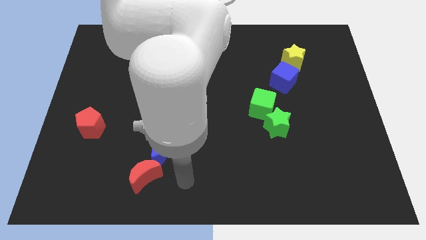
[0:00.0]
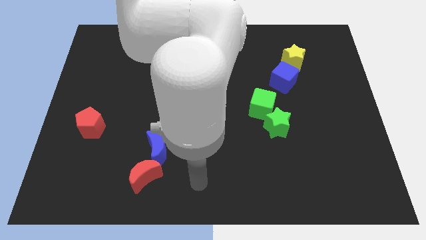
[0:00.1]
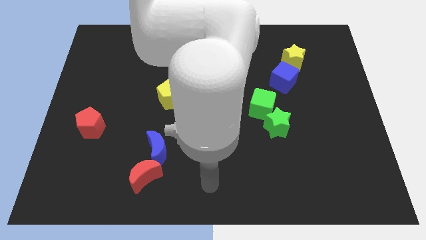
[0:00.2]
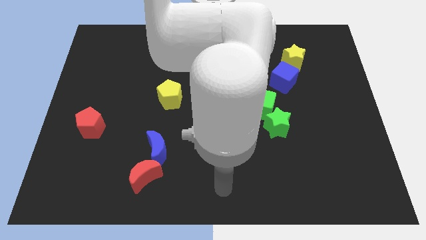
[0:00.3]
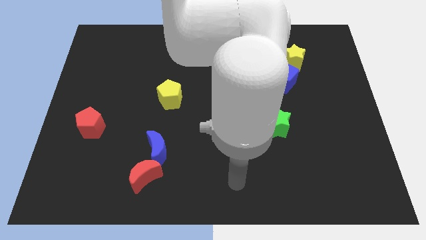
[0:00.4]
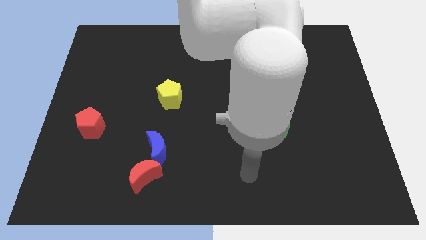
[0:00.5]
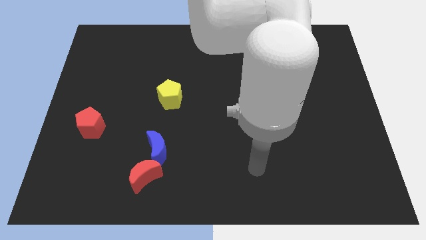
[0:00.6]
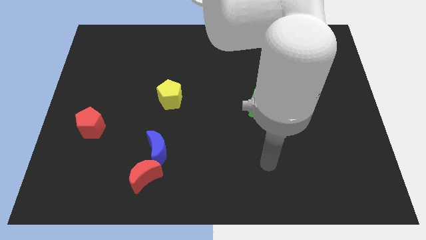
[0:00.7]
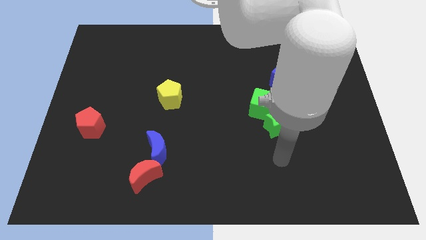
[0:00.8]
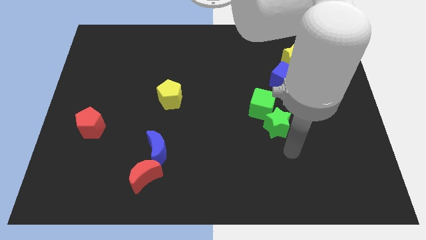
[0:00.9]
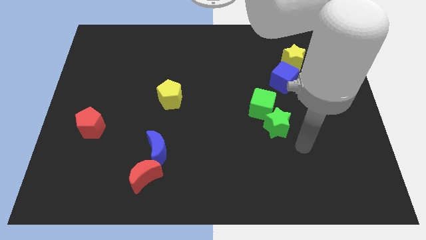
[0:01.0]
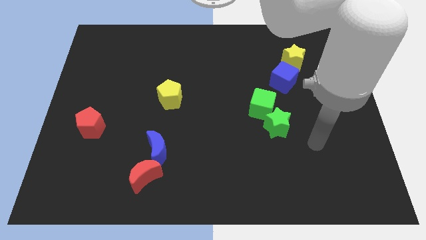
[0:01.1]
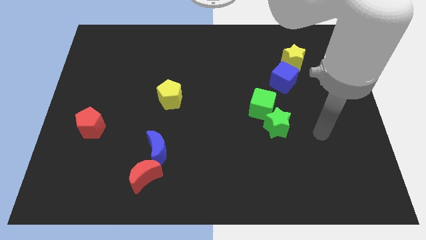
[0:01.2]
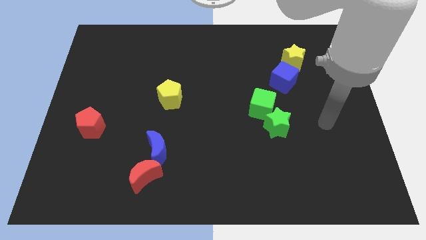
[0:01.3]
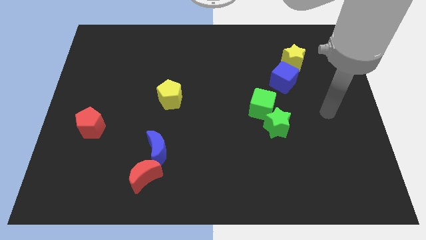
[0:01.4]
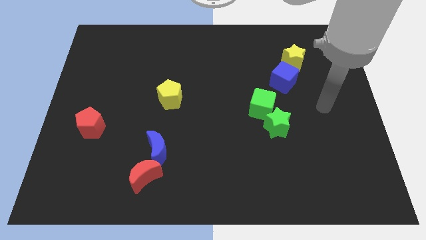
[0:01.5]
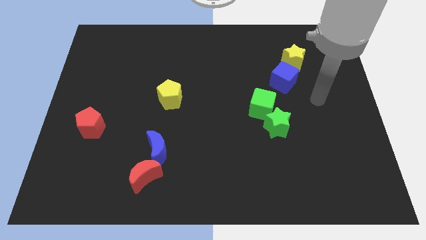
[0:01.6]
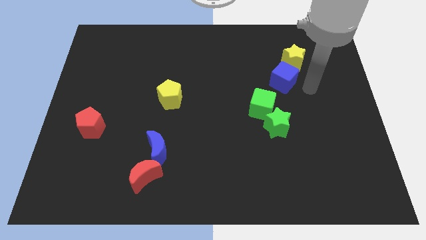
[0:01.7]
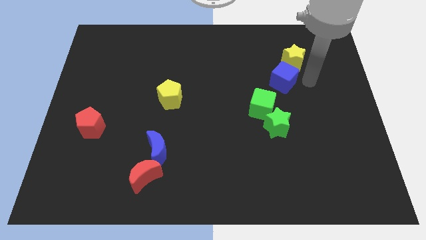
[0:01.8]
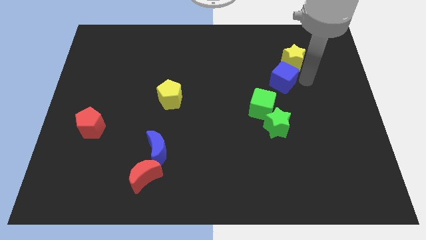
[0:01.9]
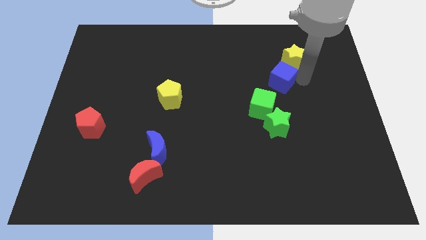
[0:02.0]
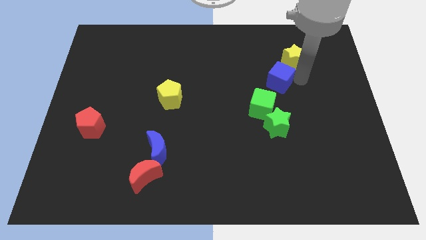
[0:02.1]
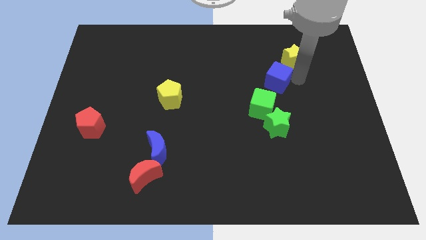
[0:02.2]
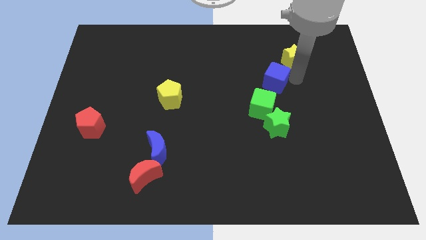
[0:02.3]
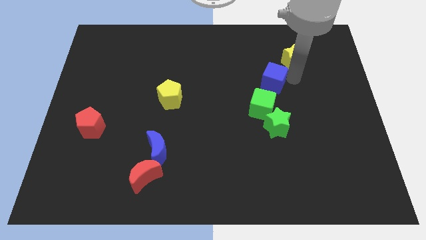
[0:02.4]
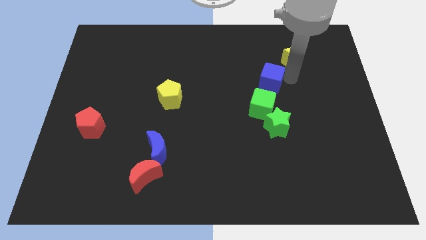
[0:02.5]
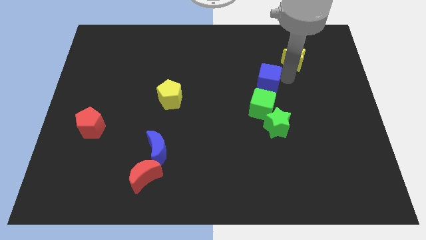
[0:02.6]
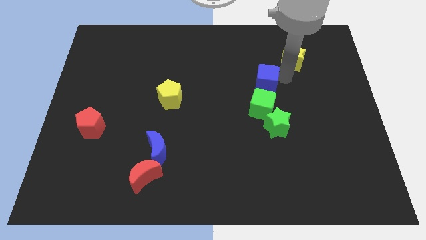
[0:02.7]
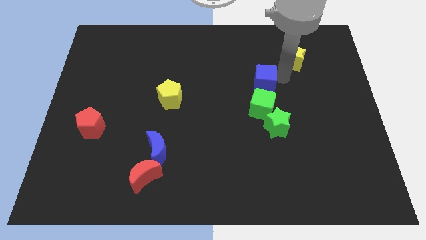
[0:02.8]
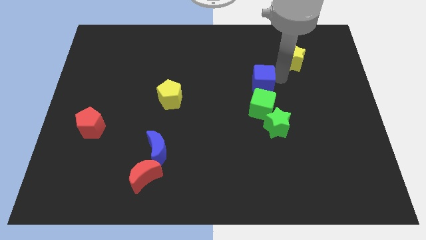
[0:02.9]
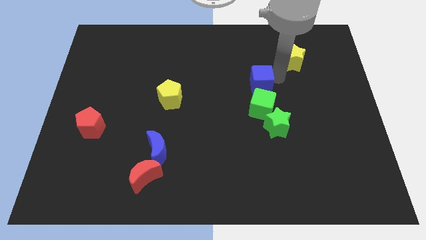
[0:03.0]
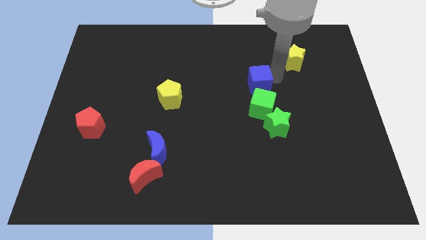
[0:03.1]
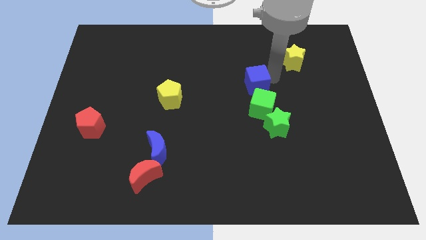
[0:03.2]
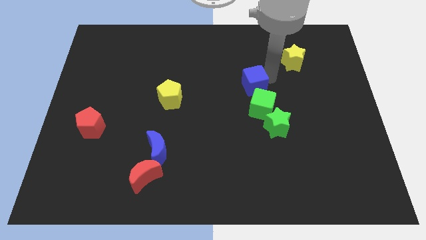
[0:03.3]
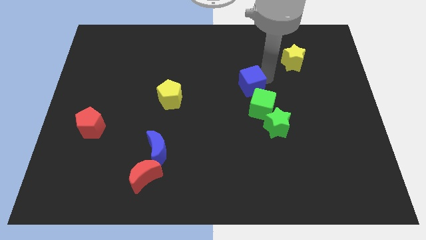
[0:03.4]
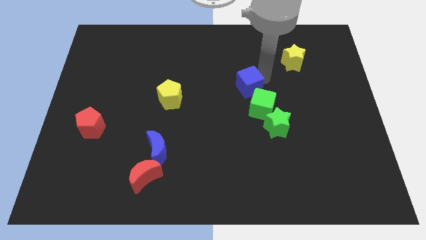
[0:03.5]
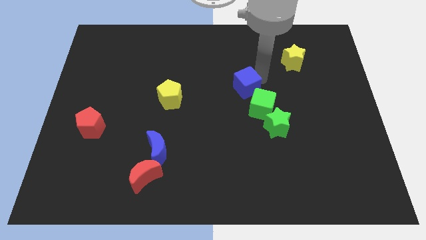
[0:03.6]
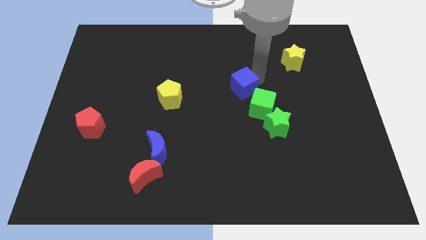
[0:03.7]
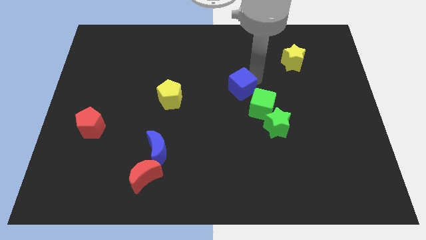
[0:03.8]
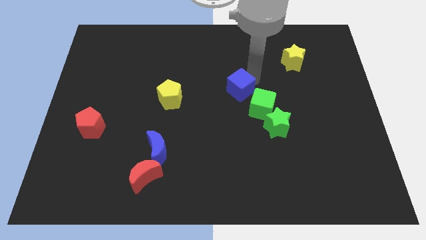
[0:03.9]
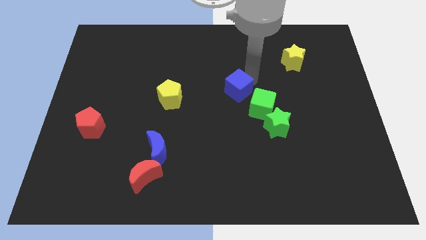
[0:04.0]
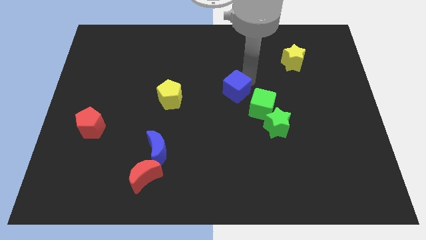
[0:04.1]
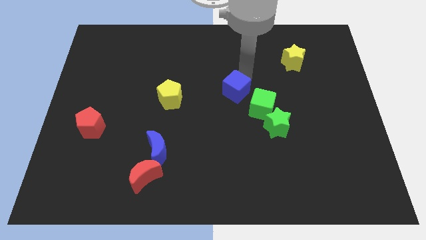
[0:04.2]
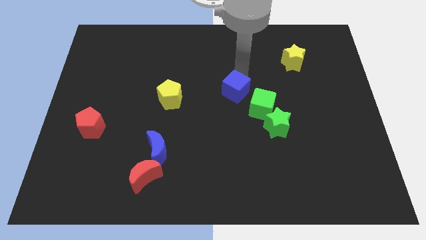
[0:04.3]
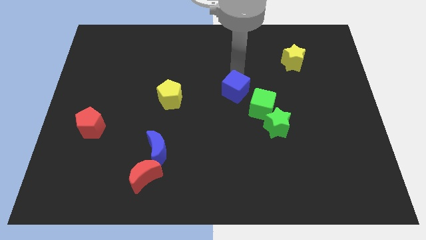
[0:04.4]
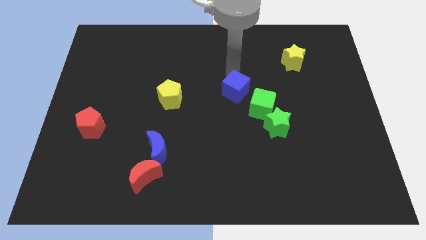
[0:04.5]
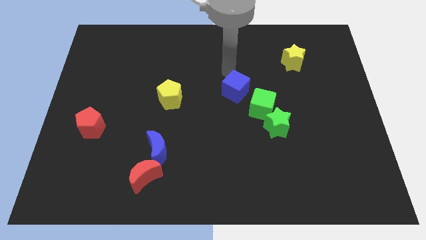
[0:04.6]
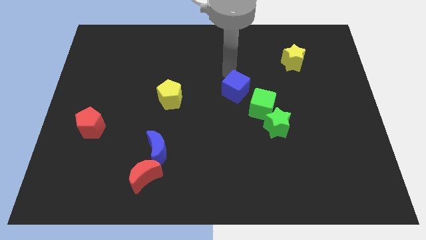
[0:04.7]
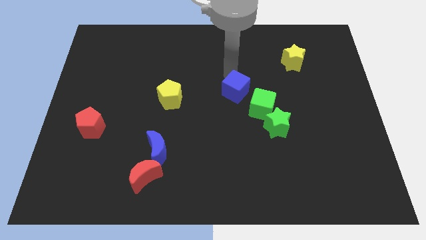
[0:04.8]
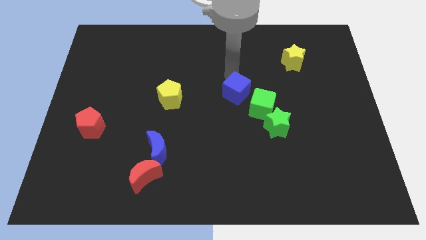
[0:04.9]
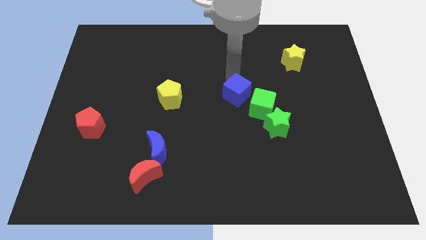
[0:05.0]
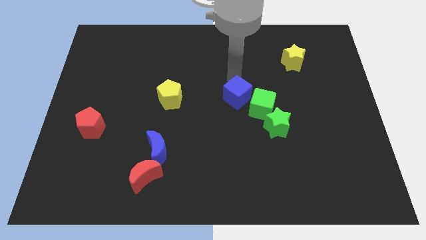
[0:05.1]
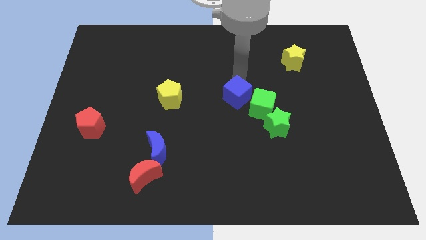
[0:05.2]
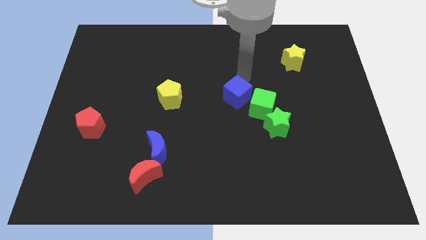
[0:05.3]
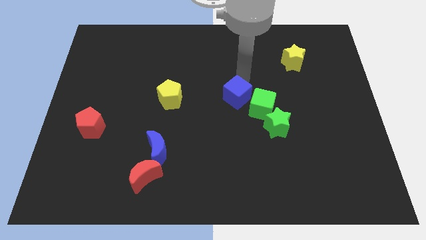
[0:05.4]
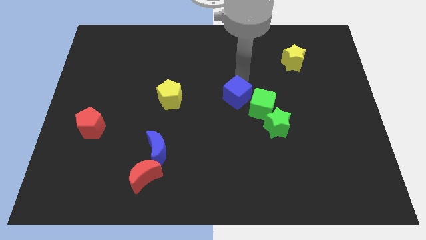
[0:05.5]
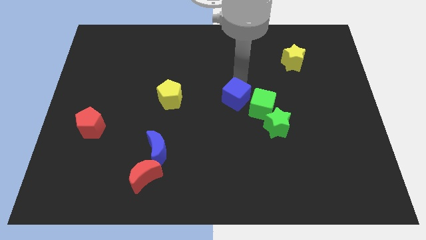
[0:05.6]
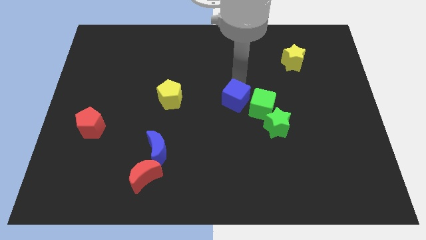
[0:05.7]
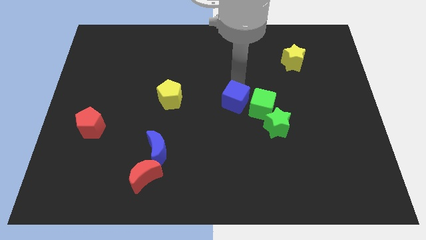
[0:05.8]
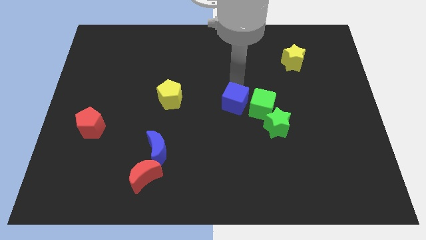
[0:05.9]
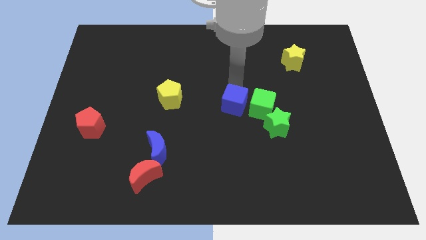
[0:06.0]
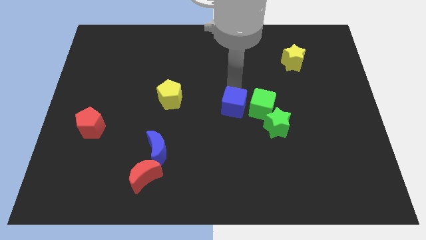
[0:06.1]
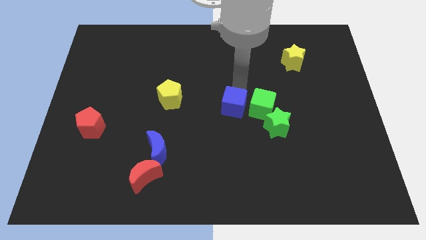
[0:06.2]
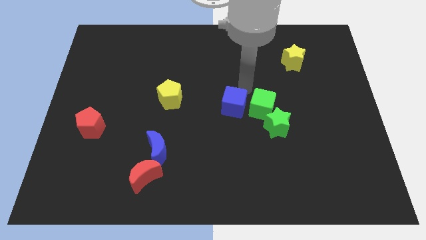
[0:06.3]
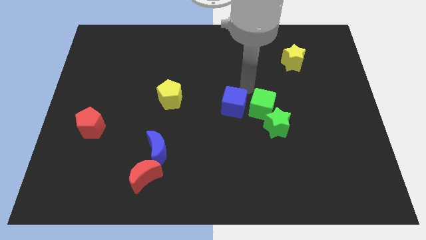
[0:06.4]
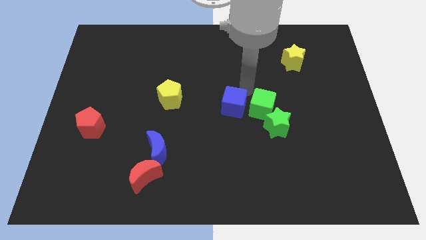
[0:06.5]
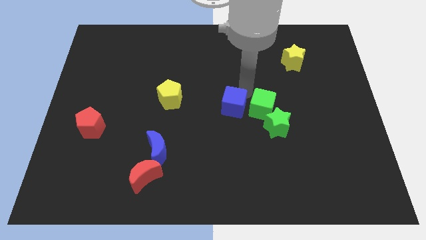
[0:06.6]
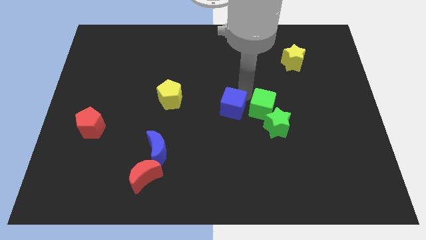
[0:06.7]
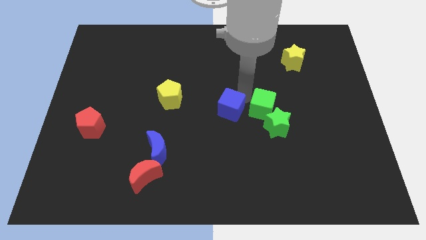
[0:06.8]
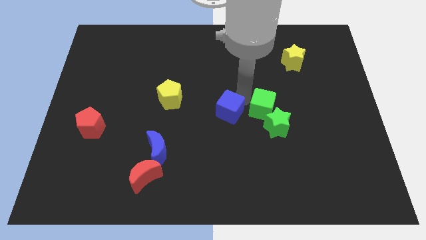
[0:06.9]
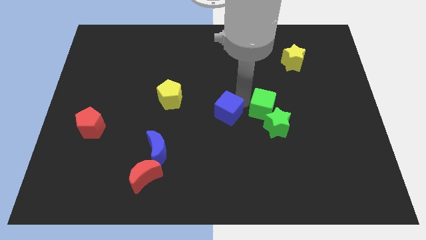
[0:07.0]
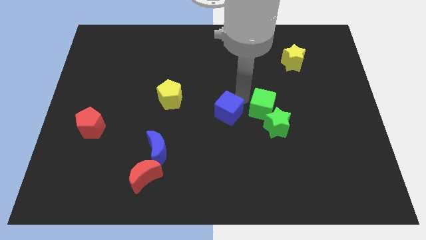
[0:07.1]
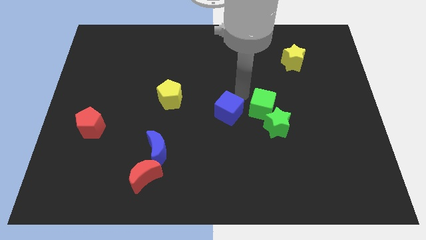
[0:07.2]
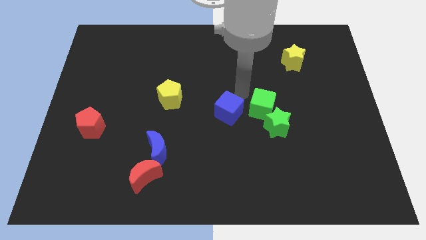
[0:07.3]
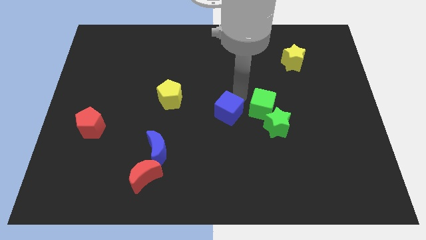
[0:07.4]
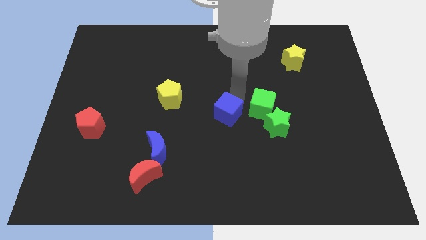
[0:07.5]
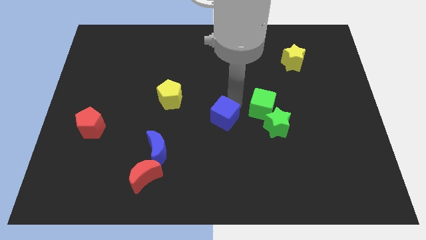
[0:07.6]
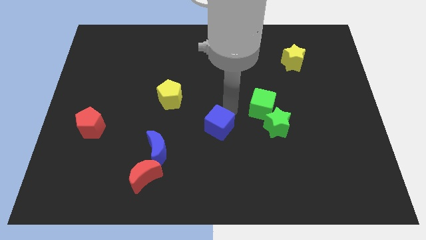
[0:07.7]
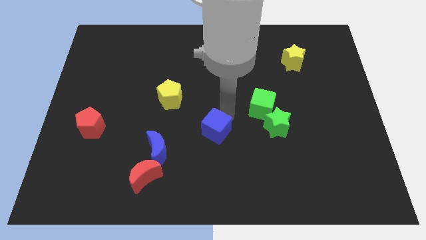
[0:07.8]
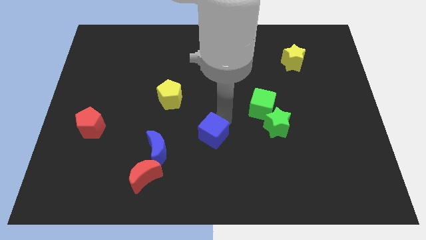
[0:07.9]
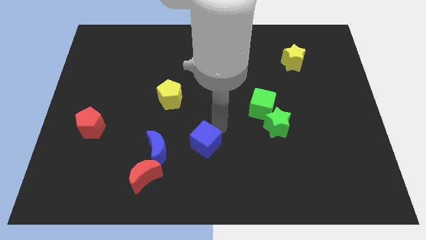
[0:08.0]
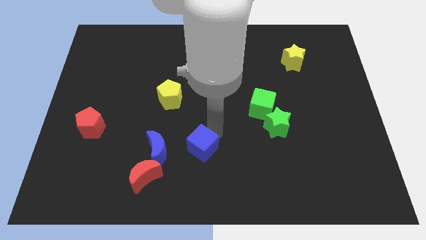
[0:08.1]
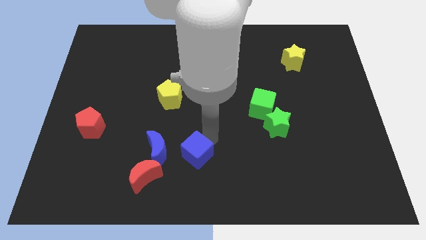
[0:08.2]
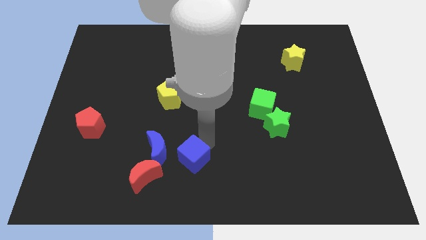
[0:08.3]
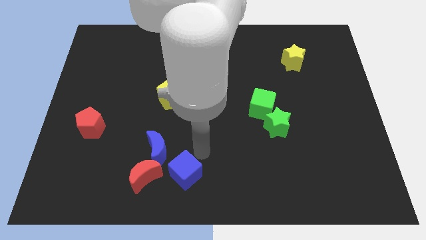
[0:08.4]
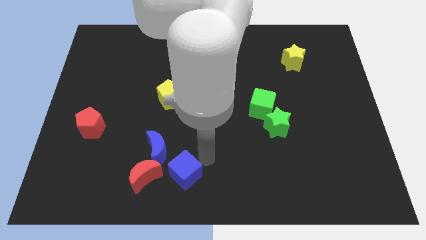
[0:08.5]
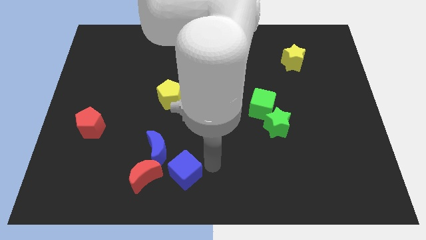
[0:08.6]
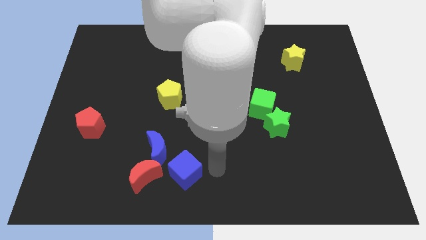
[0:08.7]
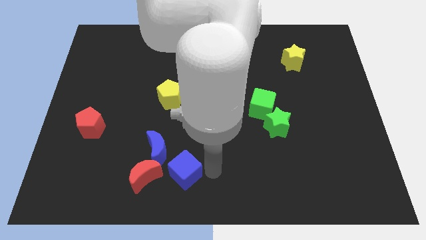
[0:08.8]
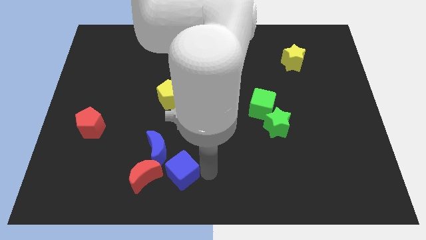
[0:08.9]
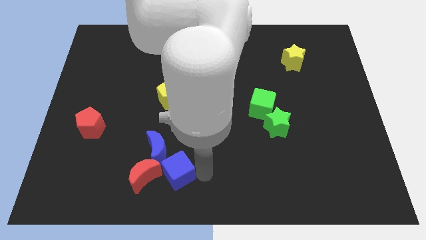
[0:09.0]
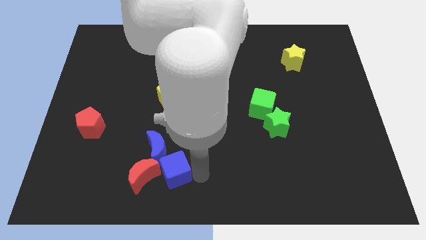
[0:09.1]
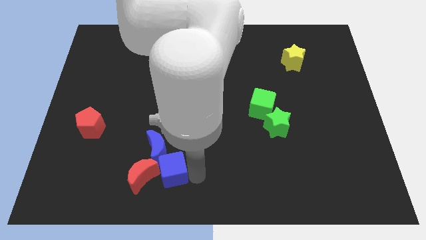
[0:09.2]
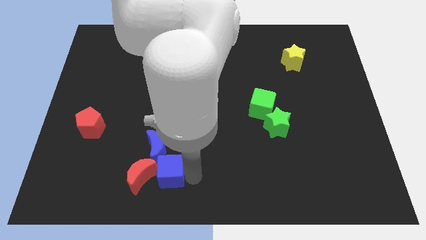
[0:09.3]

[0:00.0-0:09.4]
move the blue cube to the red moon
